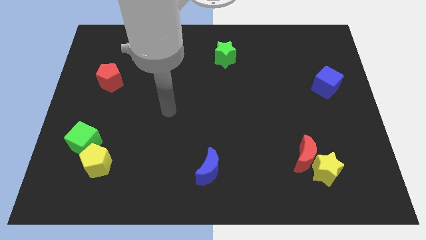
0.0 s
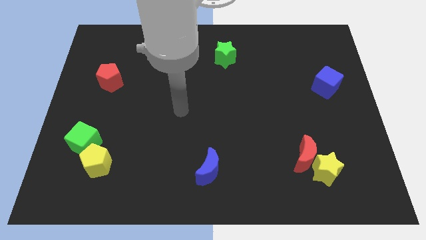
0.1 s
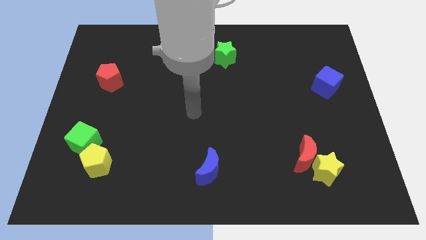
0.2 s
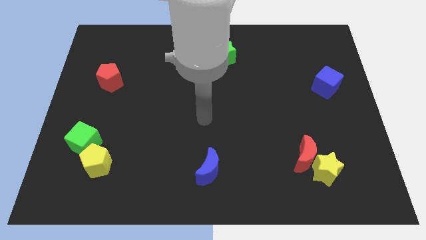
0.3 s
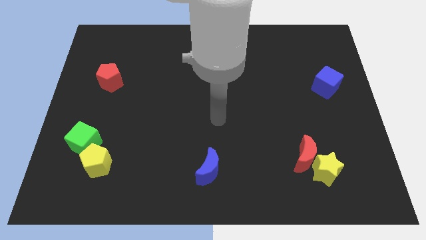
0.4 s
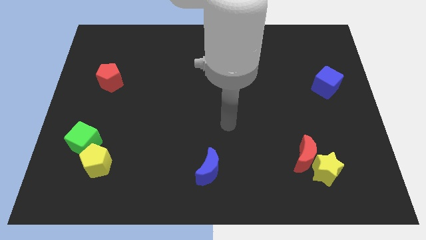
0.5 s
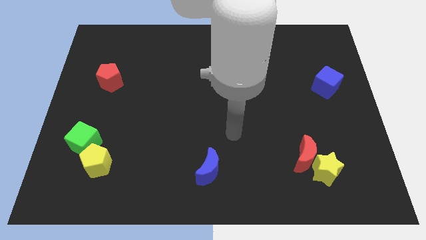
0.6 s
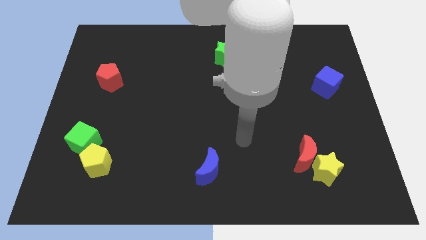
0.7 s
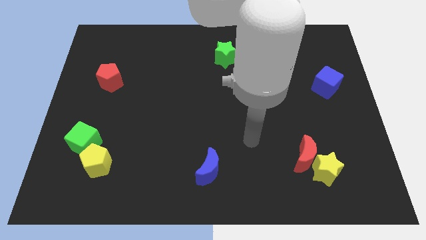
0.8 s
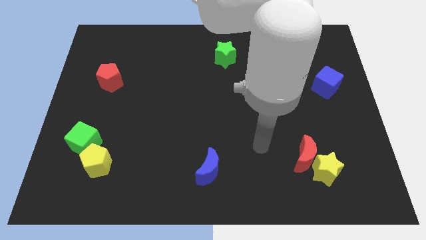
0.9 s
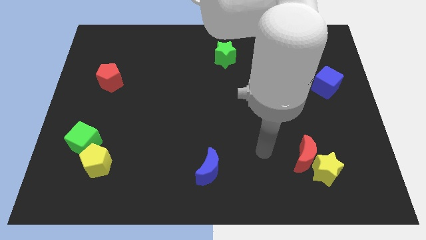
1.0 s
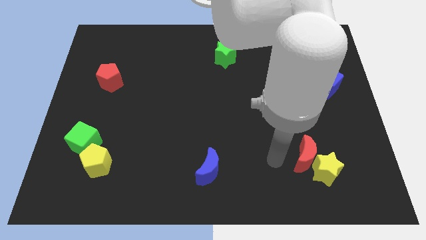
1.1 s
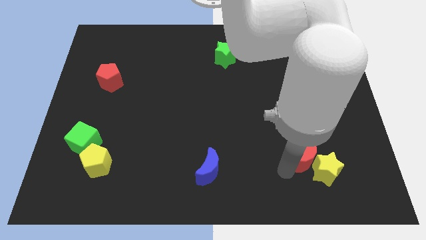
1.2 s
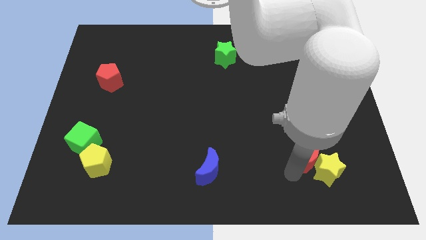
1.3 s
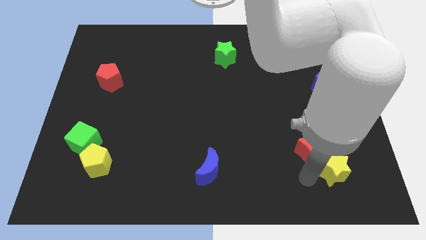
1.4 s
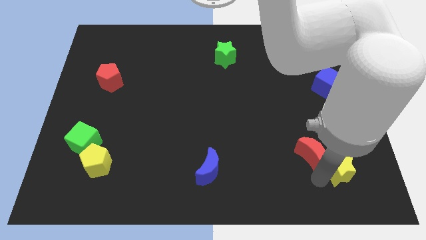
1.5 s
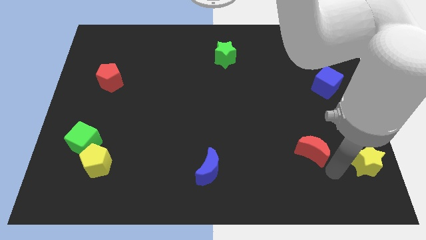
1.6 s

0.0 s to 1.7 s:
pull the red moon apart from the yellow star

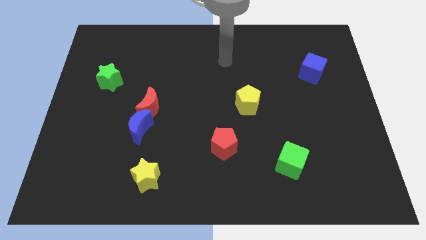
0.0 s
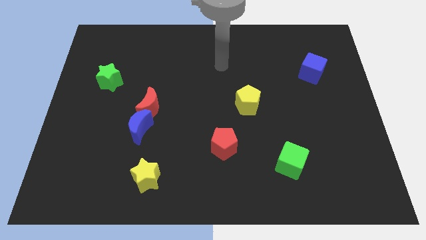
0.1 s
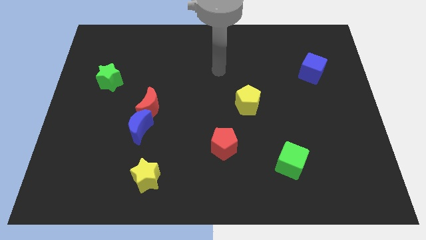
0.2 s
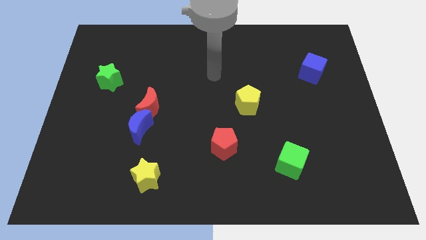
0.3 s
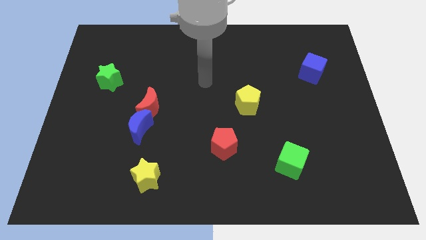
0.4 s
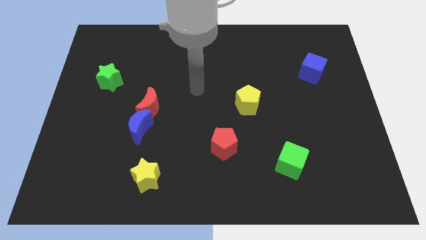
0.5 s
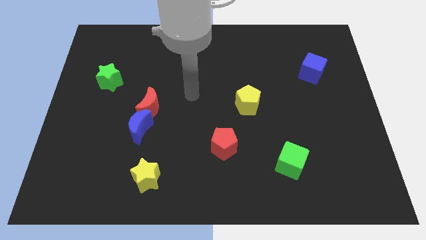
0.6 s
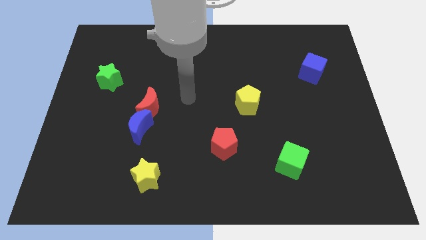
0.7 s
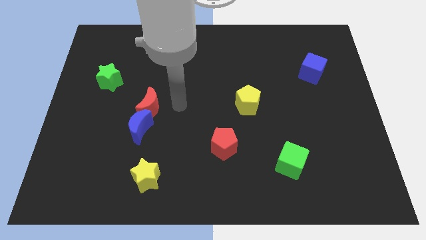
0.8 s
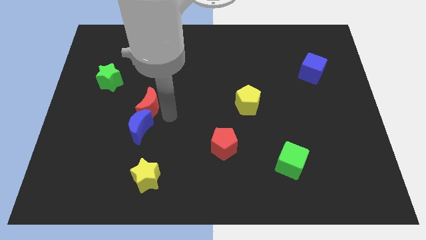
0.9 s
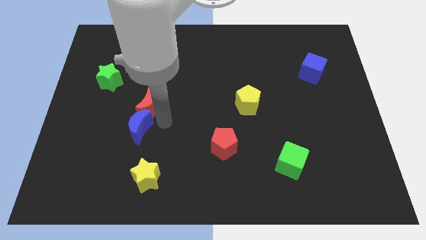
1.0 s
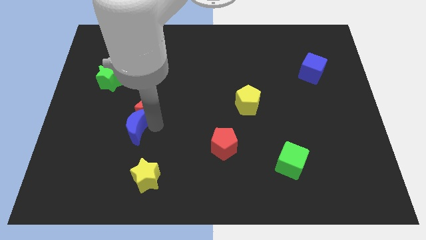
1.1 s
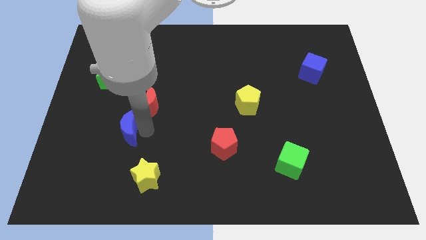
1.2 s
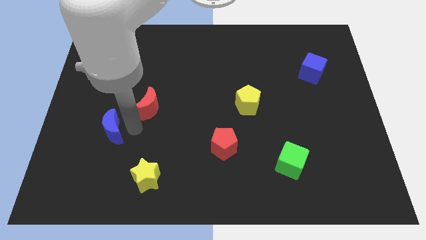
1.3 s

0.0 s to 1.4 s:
separate the red moon from the blue moon

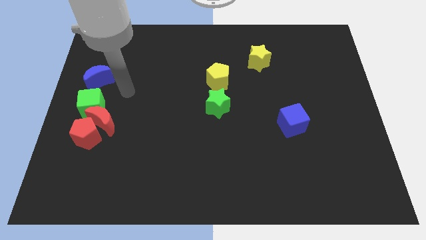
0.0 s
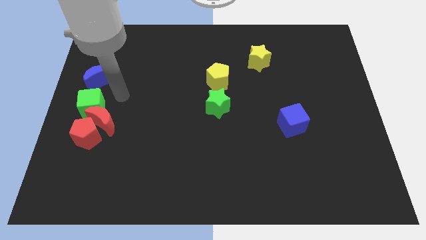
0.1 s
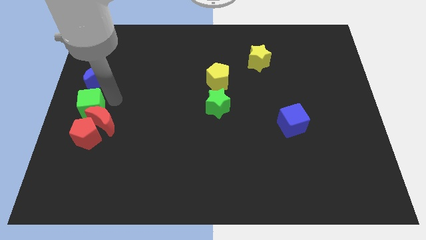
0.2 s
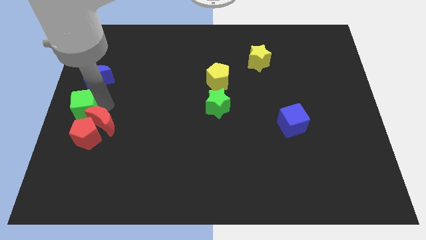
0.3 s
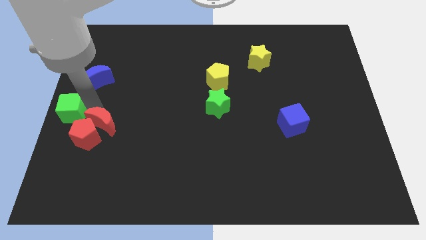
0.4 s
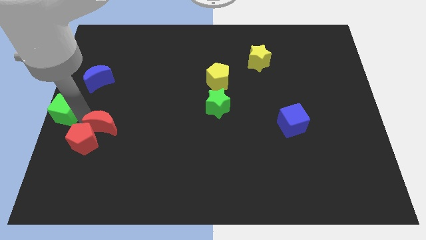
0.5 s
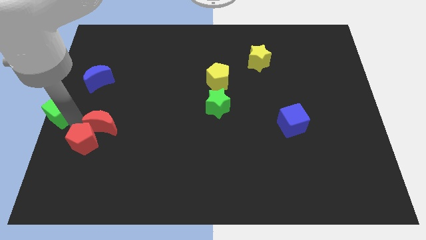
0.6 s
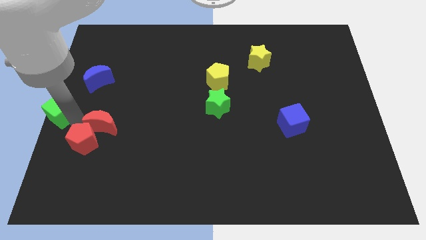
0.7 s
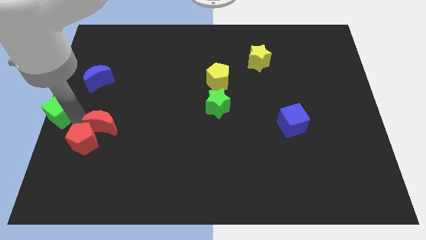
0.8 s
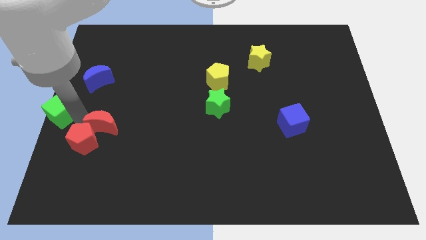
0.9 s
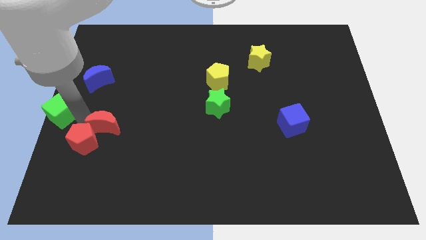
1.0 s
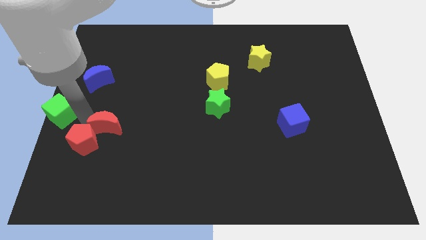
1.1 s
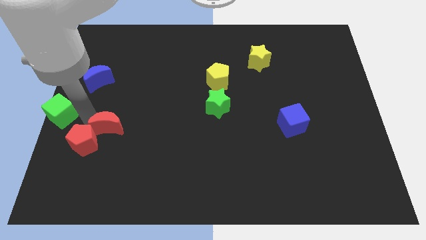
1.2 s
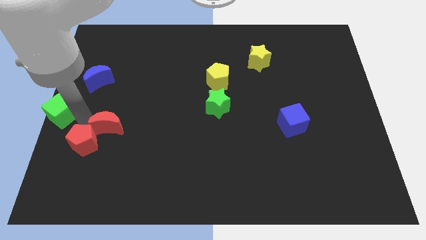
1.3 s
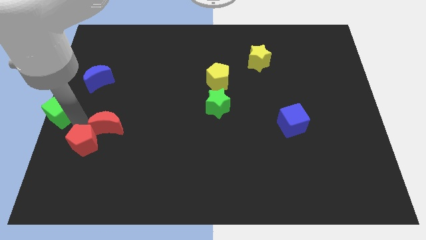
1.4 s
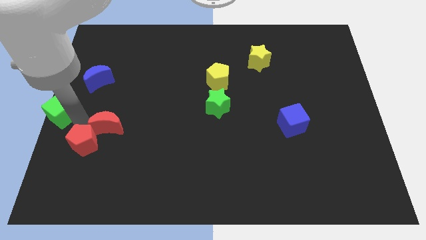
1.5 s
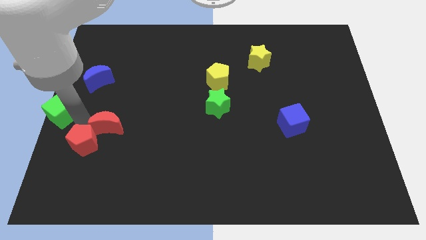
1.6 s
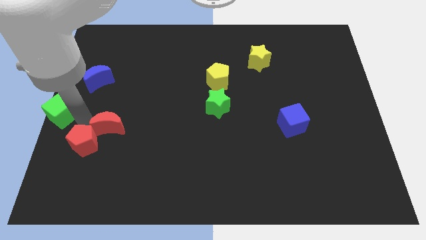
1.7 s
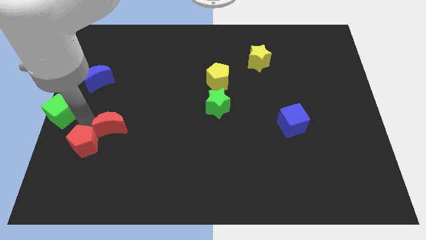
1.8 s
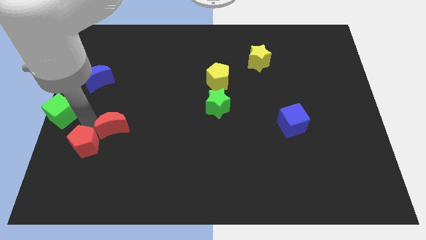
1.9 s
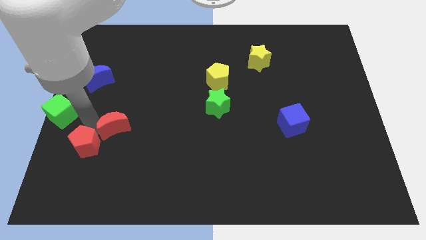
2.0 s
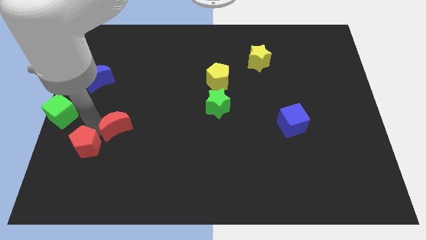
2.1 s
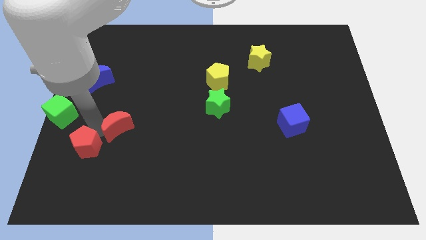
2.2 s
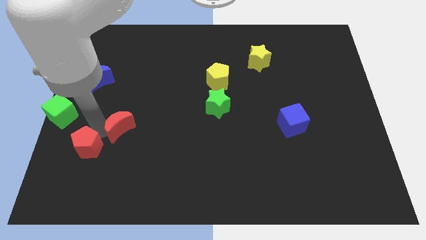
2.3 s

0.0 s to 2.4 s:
separate the red moon from the red pentagon and green cube

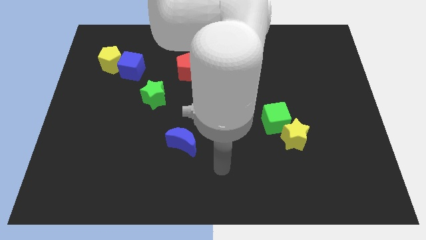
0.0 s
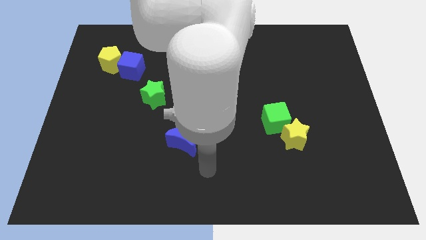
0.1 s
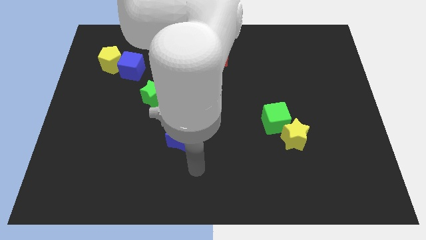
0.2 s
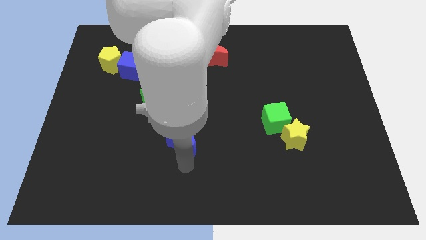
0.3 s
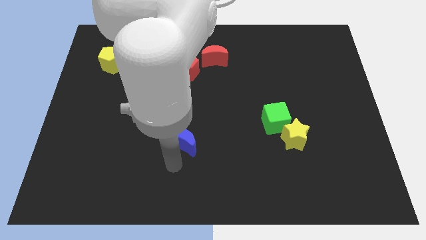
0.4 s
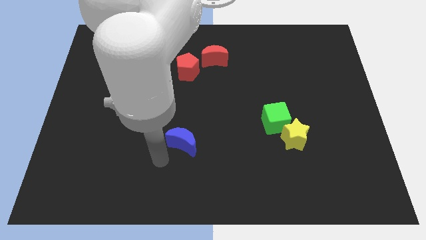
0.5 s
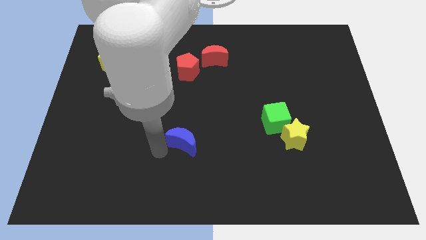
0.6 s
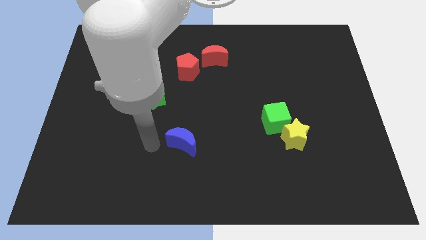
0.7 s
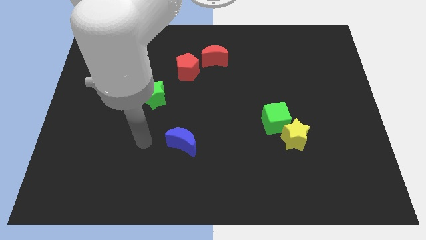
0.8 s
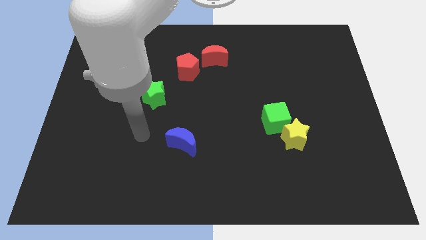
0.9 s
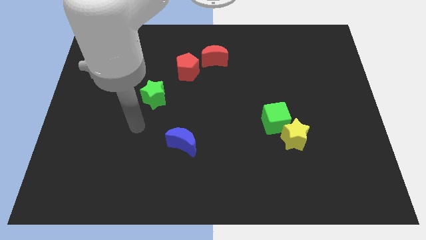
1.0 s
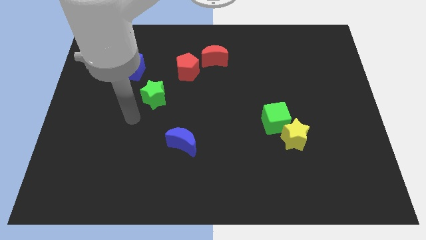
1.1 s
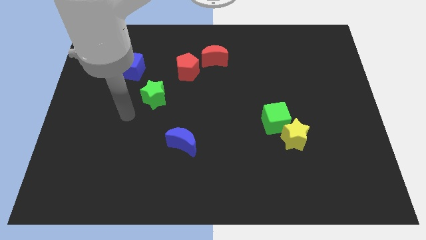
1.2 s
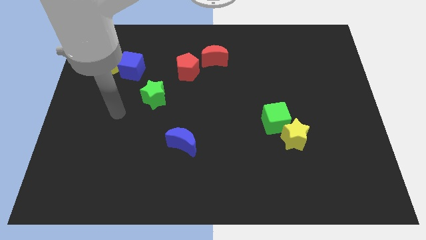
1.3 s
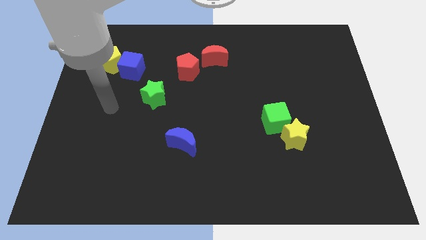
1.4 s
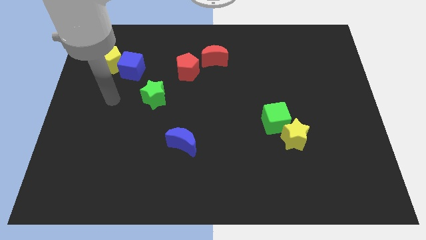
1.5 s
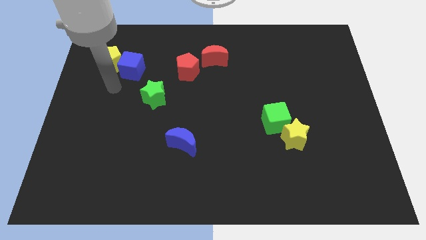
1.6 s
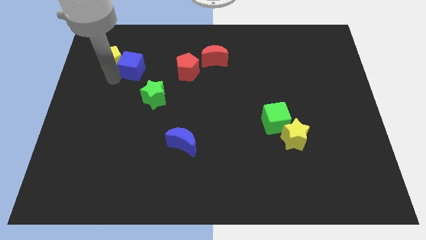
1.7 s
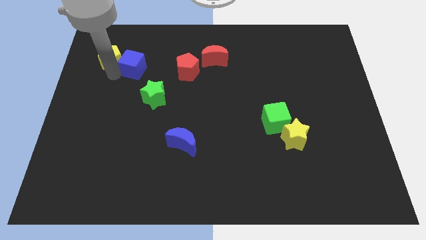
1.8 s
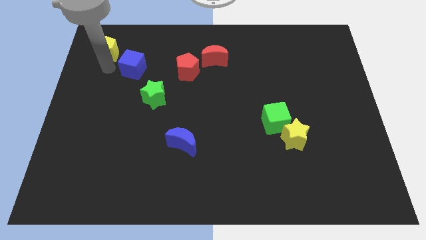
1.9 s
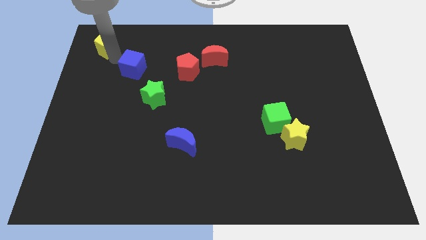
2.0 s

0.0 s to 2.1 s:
separate the blue cube from the yellow pentagon

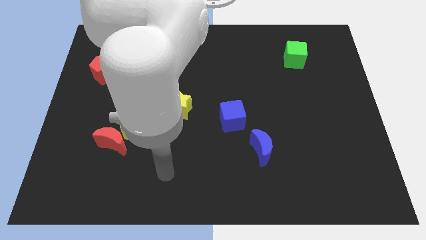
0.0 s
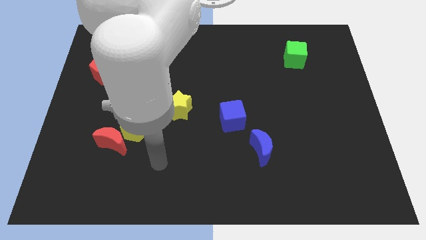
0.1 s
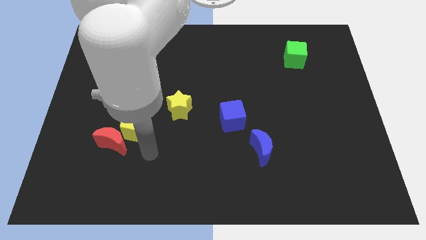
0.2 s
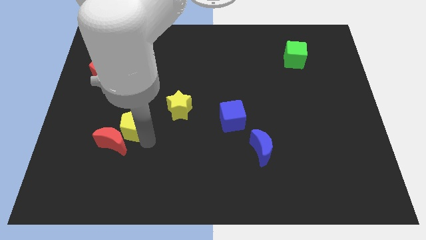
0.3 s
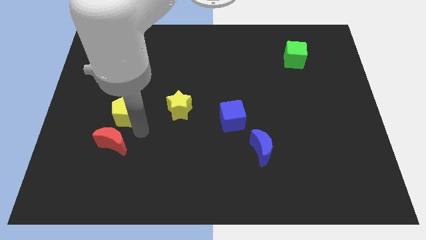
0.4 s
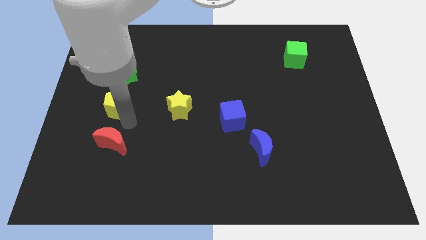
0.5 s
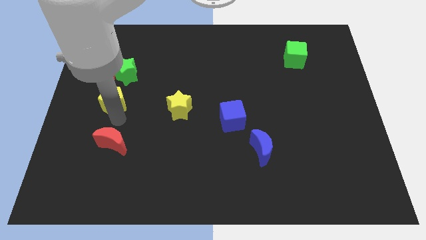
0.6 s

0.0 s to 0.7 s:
move the red moon away from the yellow pentagon

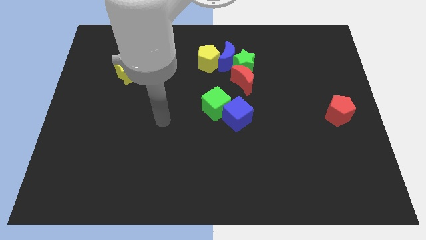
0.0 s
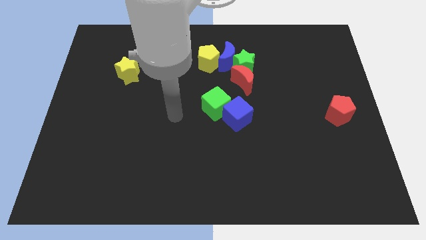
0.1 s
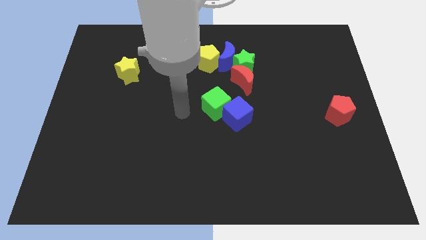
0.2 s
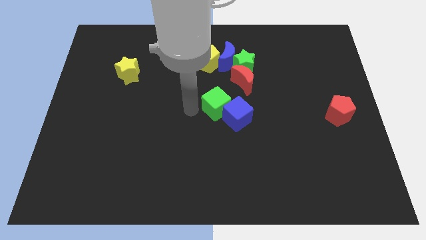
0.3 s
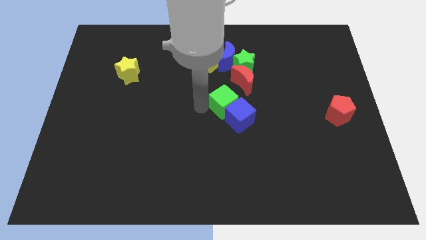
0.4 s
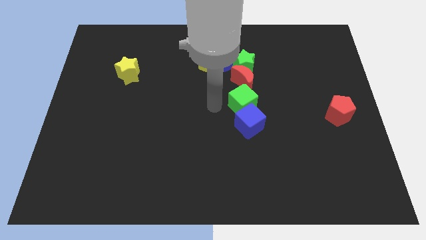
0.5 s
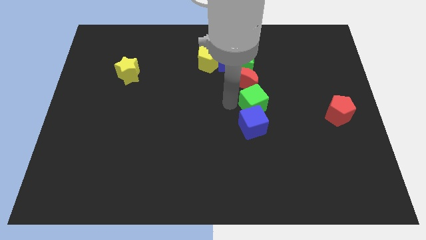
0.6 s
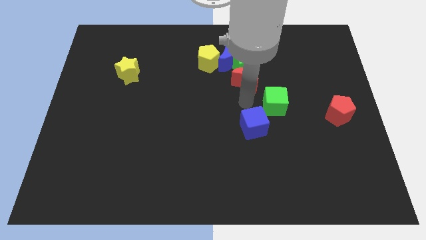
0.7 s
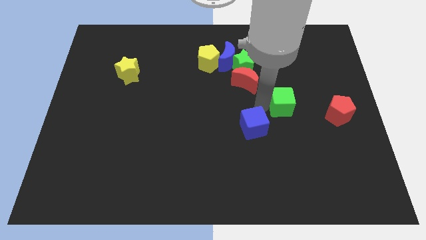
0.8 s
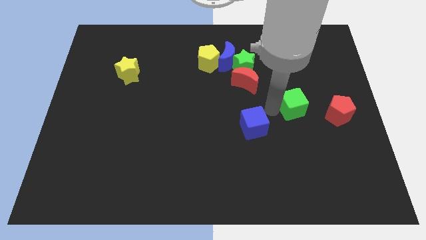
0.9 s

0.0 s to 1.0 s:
pull the blue cube apart from the green cube
